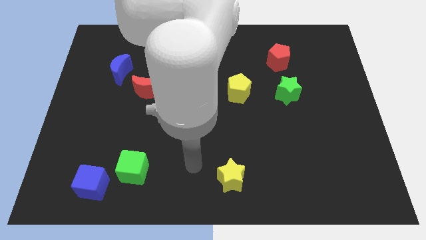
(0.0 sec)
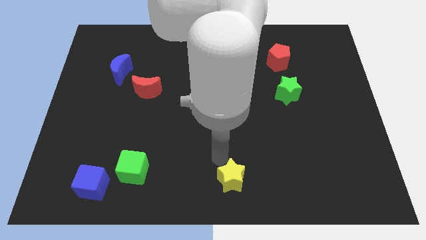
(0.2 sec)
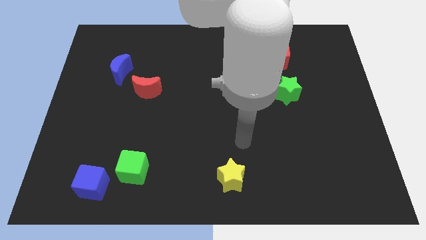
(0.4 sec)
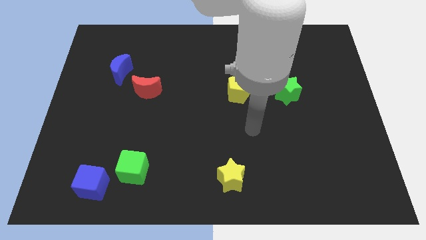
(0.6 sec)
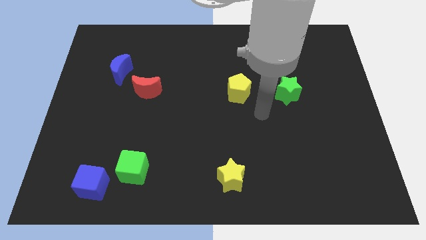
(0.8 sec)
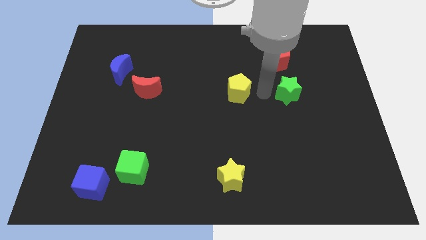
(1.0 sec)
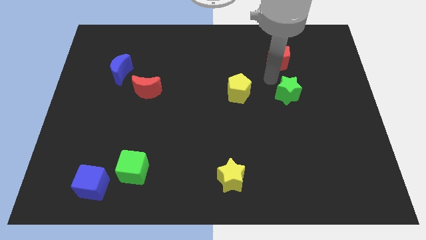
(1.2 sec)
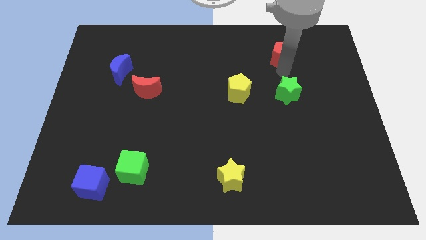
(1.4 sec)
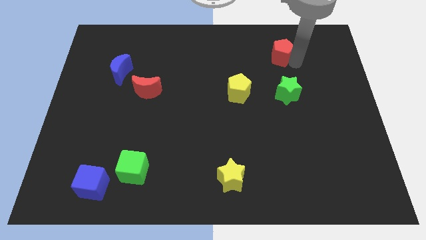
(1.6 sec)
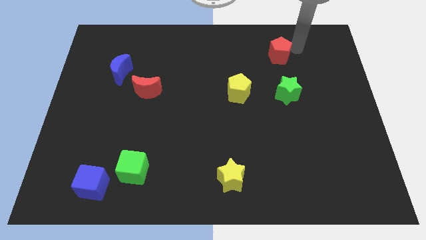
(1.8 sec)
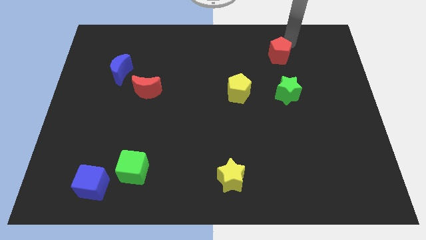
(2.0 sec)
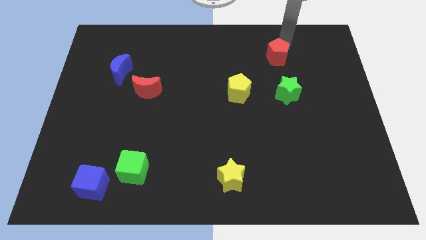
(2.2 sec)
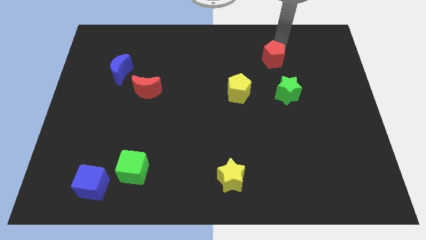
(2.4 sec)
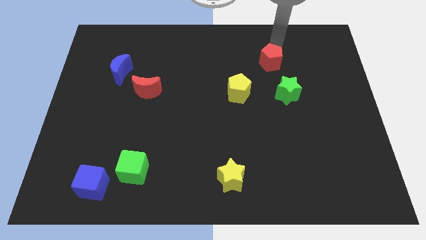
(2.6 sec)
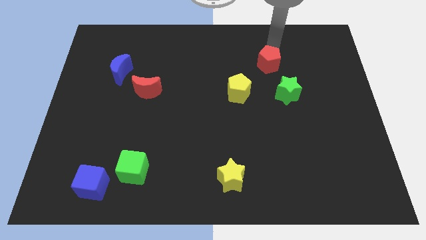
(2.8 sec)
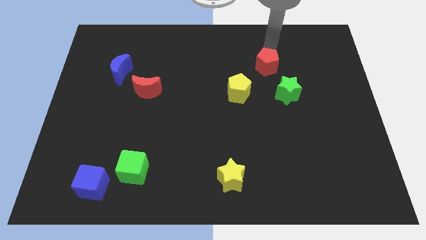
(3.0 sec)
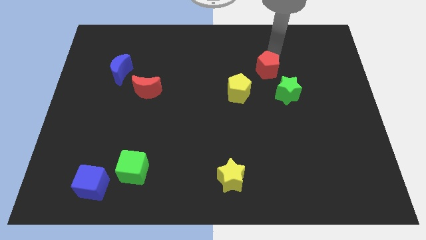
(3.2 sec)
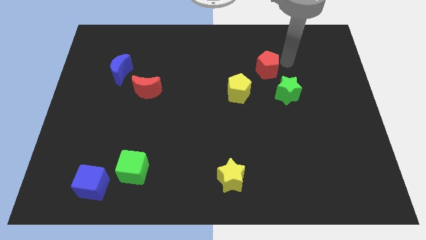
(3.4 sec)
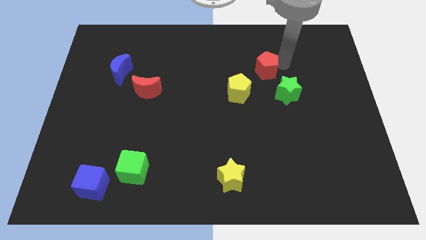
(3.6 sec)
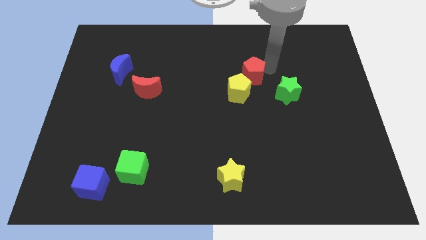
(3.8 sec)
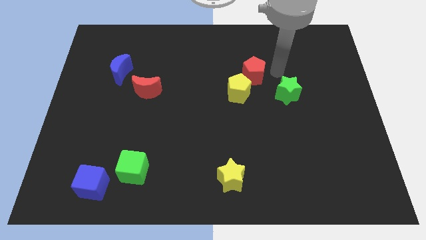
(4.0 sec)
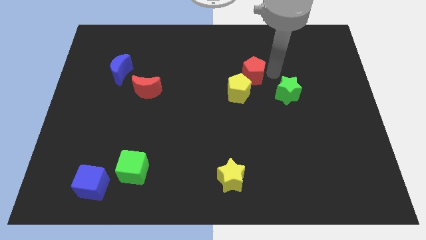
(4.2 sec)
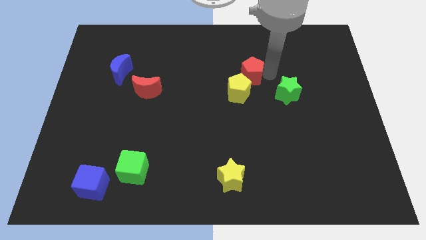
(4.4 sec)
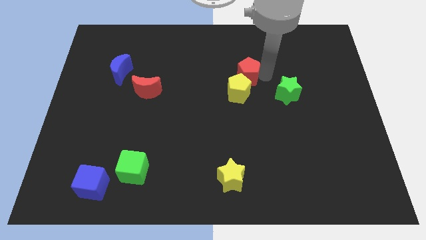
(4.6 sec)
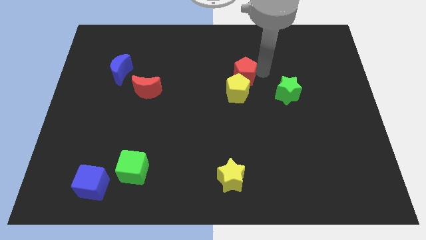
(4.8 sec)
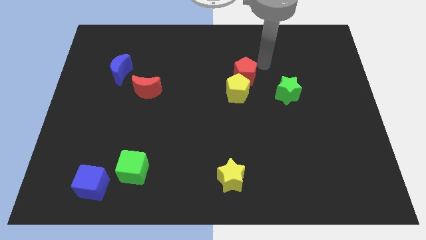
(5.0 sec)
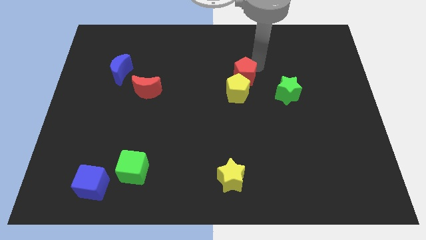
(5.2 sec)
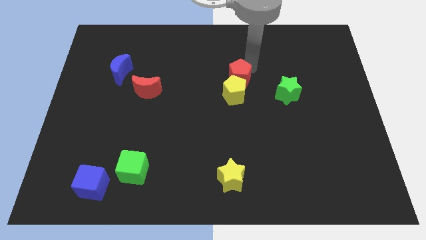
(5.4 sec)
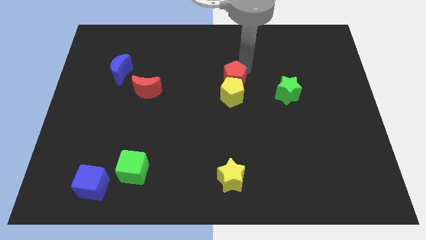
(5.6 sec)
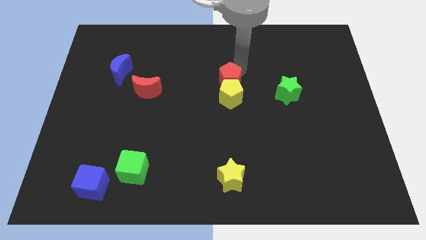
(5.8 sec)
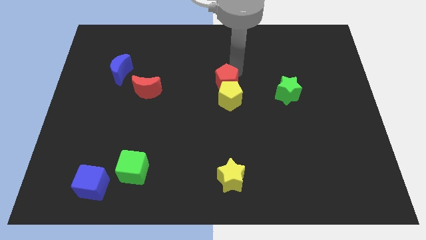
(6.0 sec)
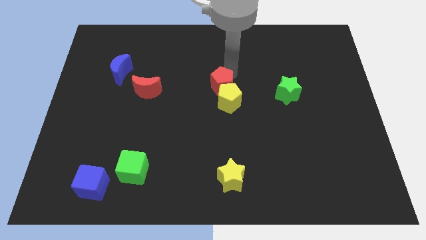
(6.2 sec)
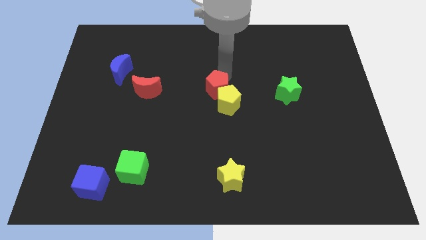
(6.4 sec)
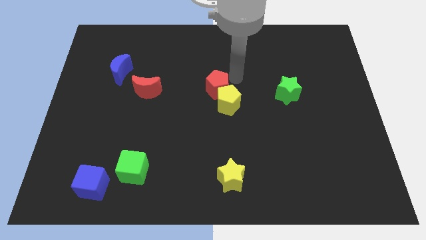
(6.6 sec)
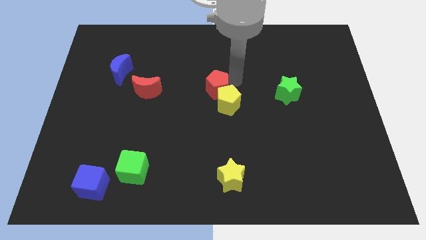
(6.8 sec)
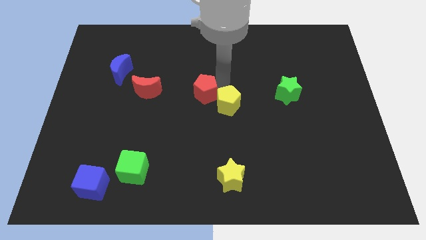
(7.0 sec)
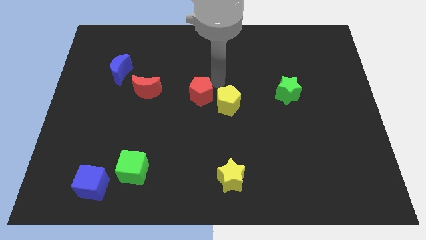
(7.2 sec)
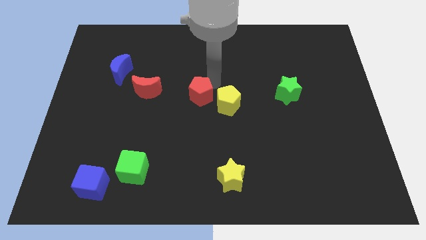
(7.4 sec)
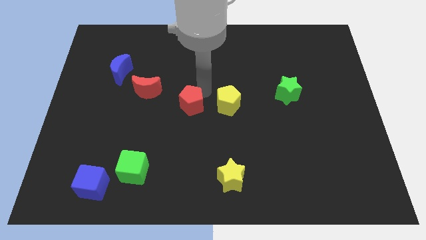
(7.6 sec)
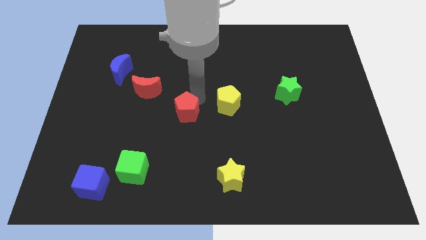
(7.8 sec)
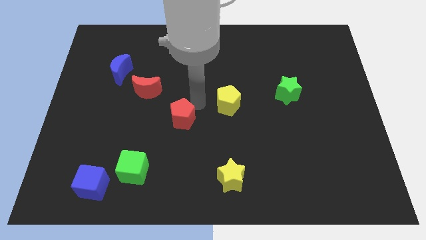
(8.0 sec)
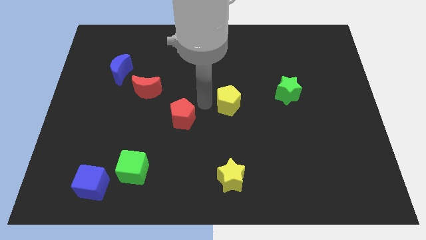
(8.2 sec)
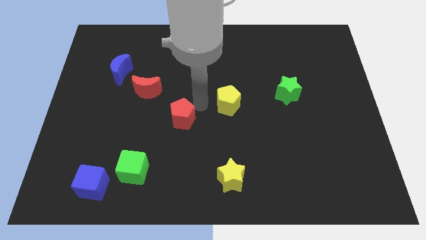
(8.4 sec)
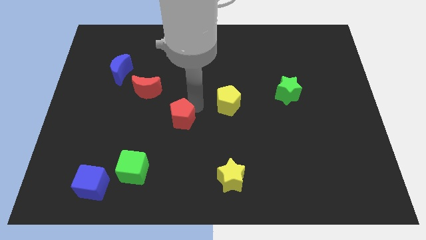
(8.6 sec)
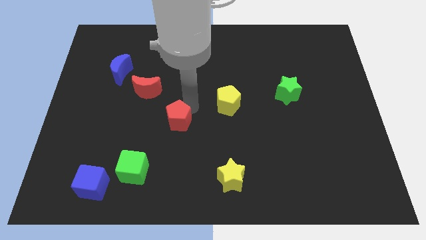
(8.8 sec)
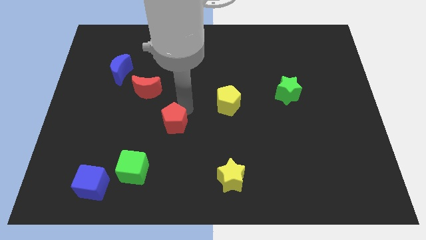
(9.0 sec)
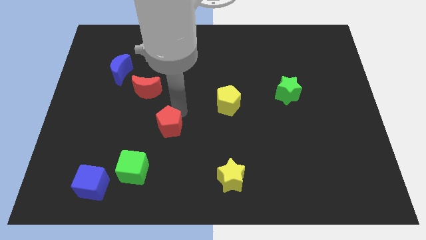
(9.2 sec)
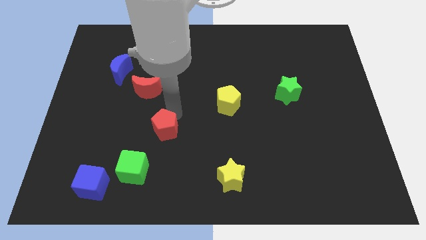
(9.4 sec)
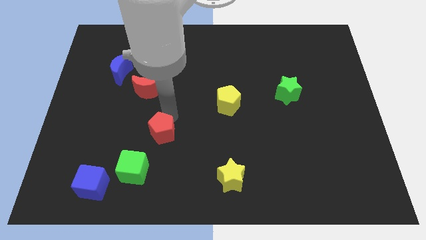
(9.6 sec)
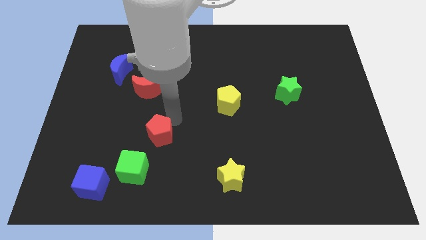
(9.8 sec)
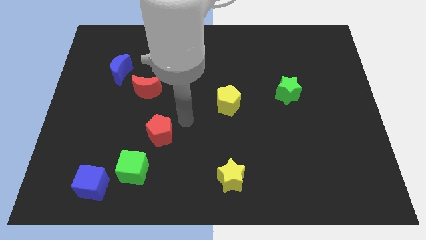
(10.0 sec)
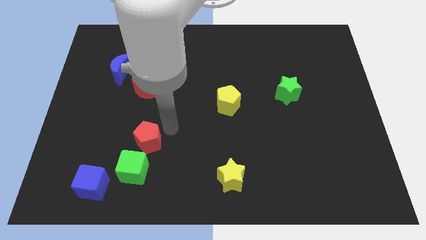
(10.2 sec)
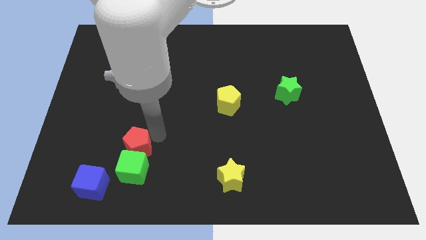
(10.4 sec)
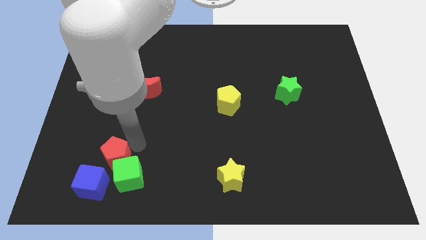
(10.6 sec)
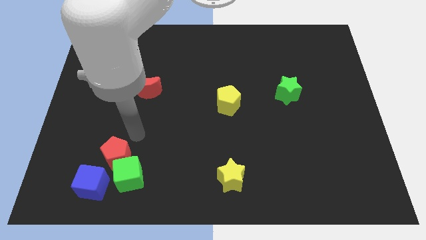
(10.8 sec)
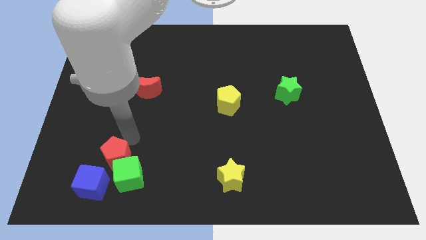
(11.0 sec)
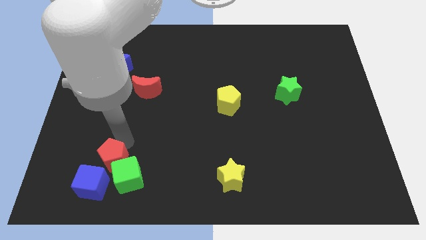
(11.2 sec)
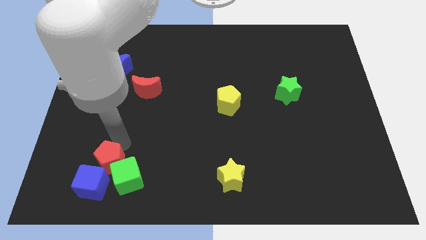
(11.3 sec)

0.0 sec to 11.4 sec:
slide the red pentagon close to the blue cube

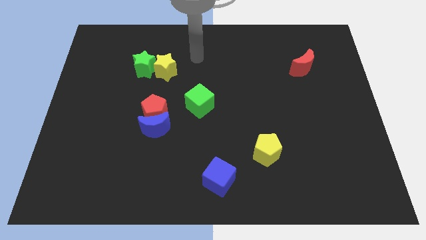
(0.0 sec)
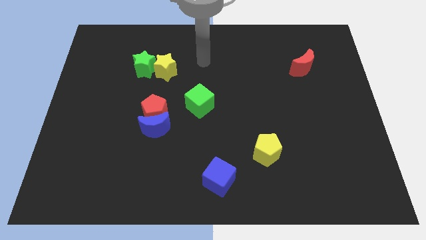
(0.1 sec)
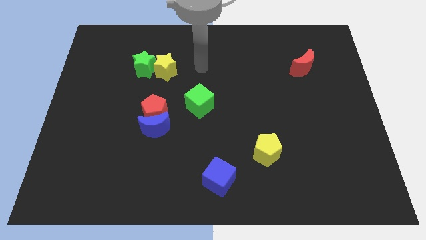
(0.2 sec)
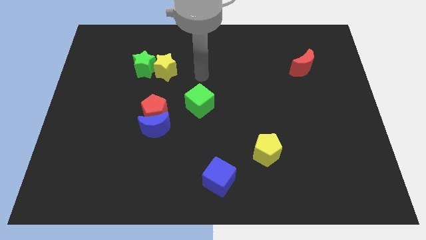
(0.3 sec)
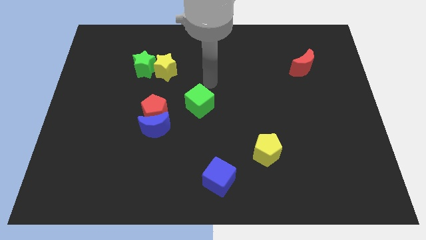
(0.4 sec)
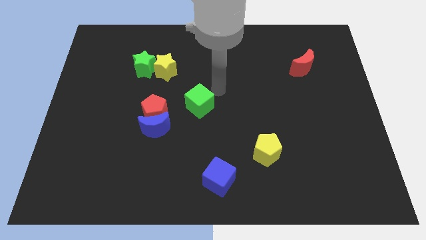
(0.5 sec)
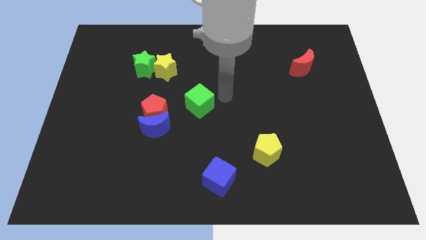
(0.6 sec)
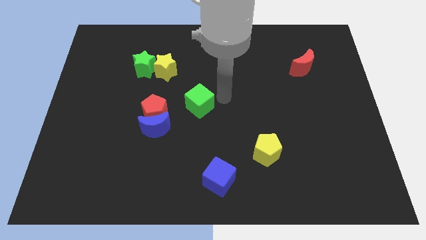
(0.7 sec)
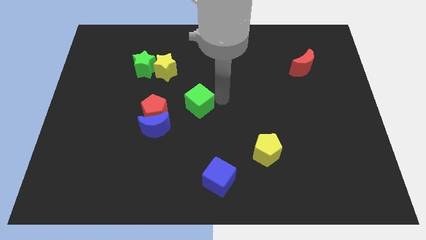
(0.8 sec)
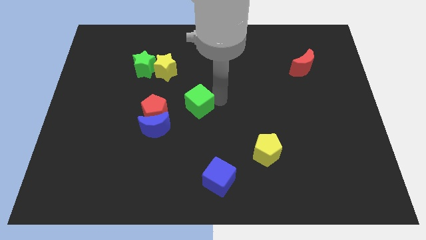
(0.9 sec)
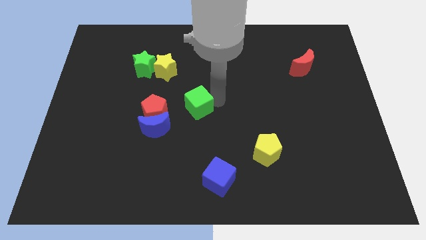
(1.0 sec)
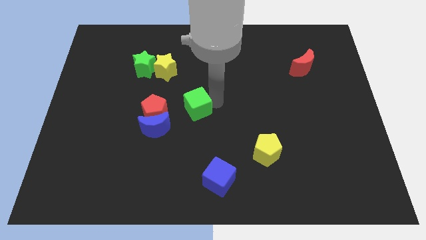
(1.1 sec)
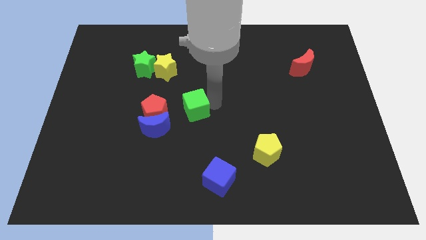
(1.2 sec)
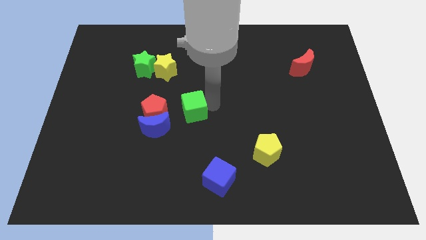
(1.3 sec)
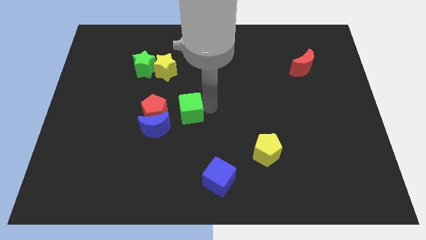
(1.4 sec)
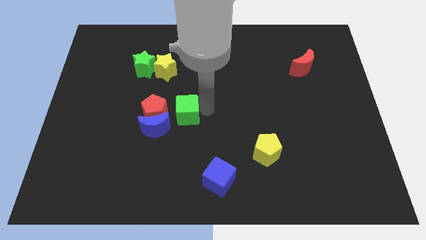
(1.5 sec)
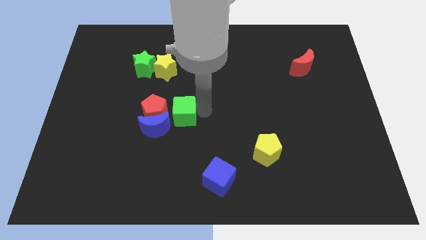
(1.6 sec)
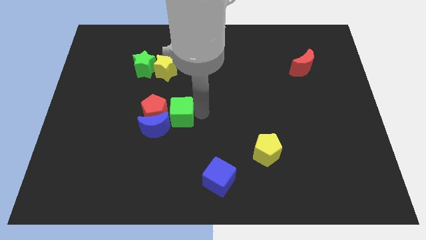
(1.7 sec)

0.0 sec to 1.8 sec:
push the green cube next to the red pentagon
